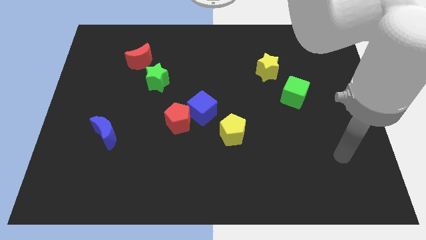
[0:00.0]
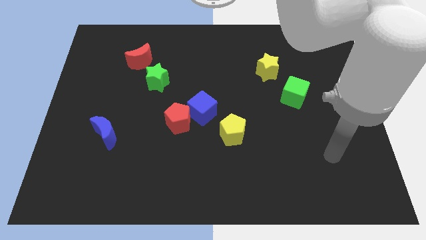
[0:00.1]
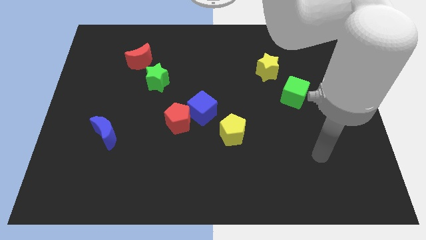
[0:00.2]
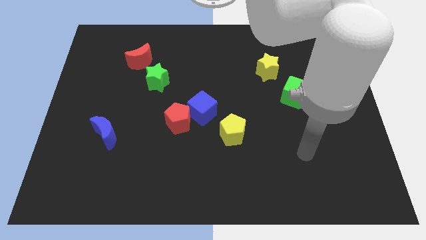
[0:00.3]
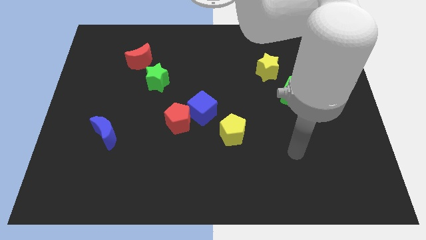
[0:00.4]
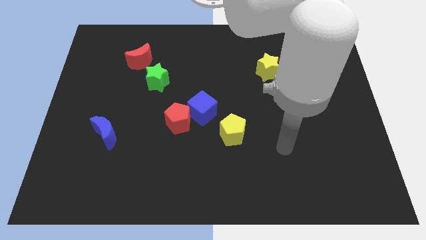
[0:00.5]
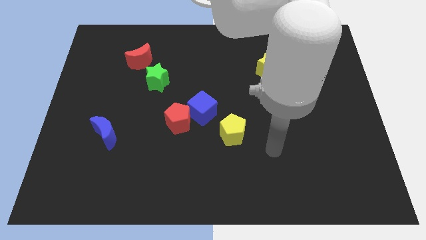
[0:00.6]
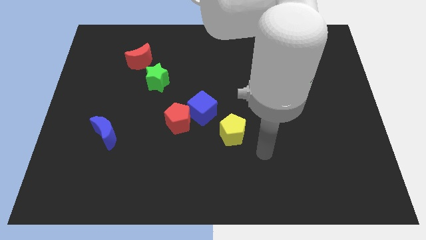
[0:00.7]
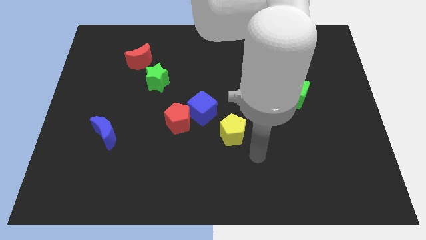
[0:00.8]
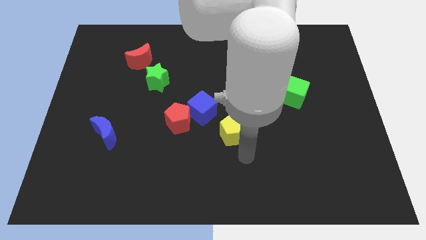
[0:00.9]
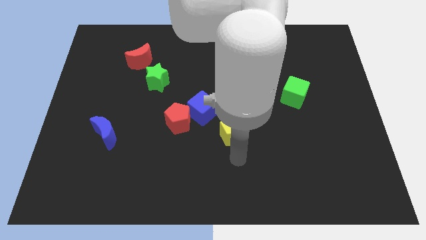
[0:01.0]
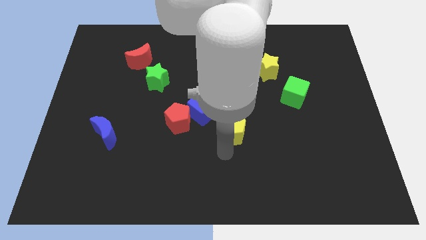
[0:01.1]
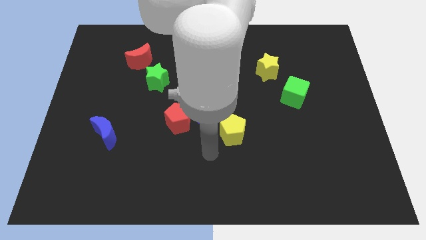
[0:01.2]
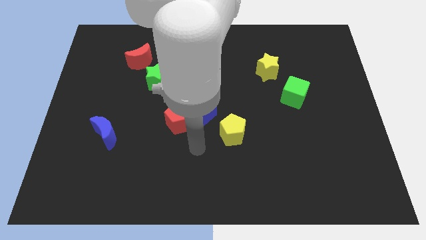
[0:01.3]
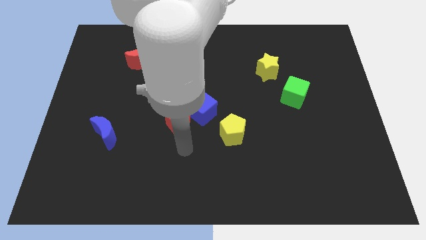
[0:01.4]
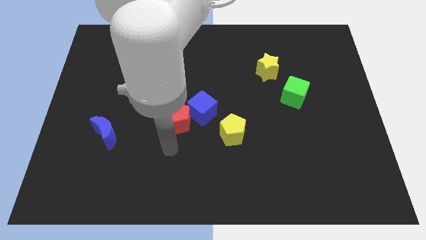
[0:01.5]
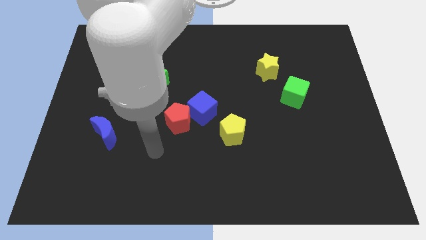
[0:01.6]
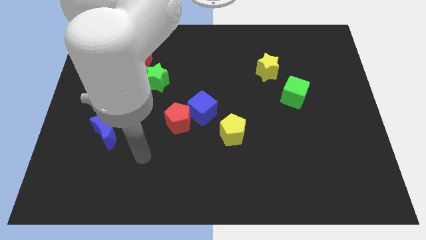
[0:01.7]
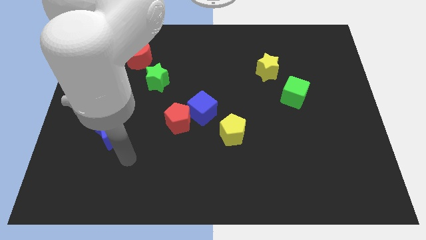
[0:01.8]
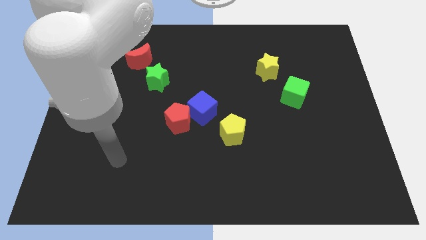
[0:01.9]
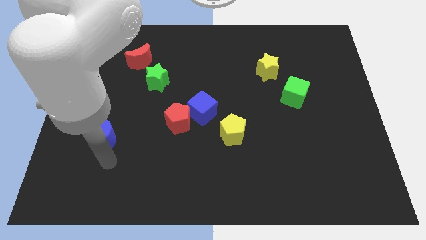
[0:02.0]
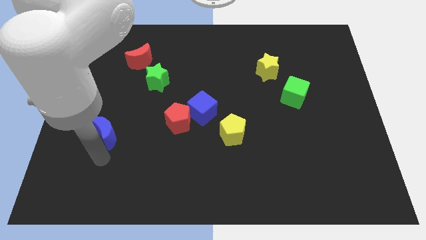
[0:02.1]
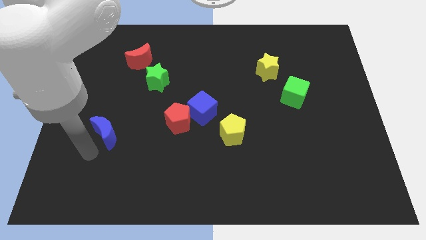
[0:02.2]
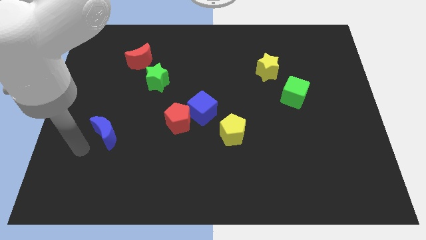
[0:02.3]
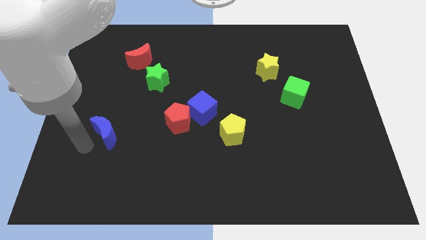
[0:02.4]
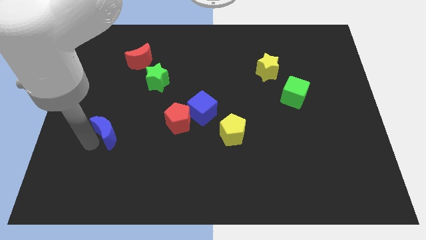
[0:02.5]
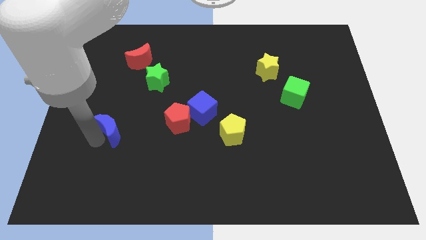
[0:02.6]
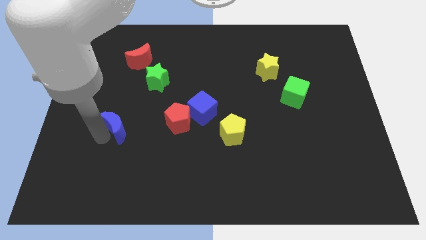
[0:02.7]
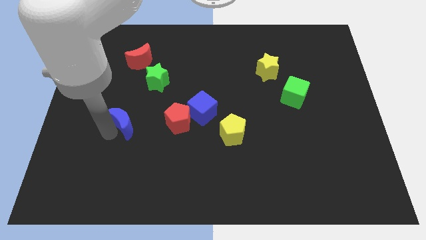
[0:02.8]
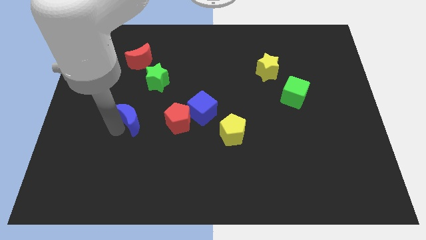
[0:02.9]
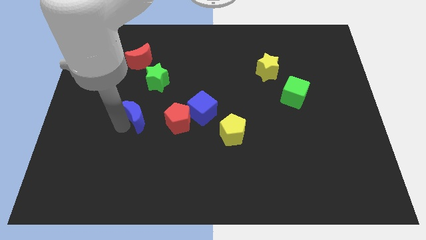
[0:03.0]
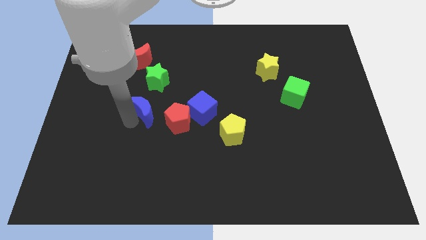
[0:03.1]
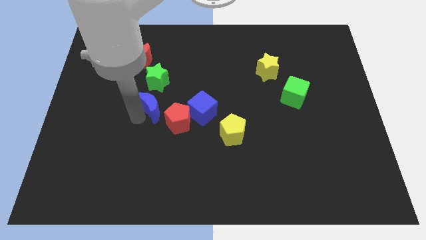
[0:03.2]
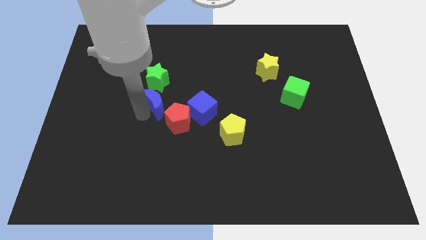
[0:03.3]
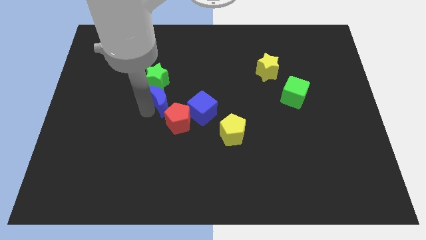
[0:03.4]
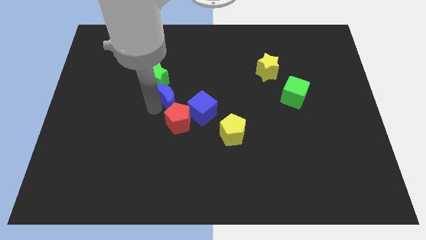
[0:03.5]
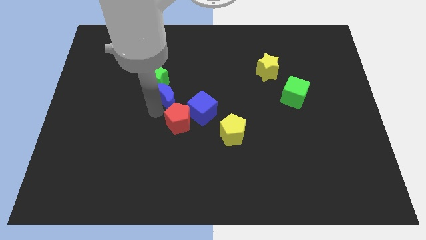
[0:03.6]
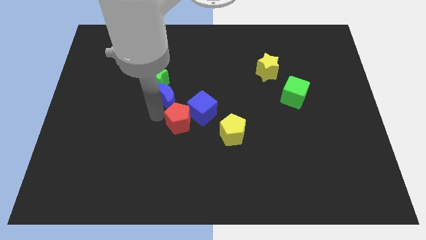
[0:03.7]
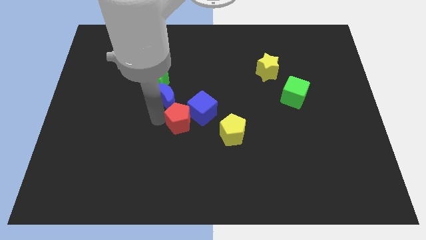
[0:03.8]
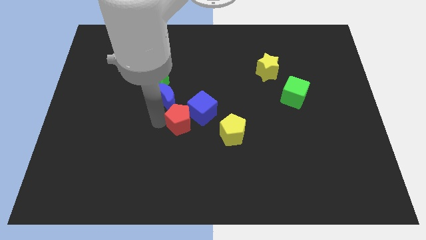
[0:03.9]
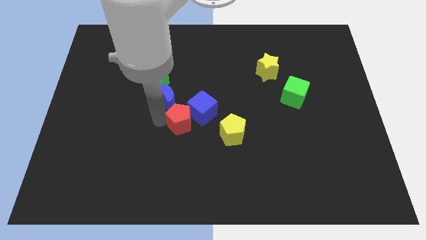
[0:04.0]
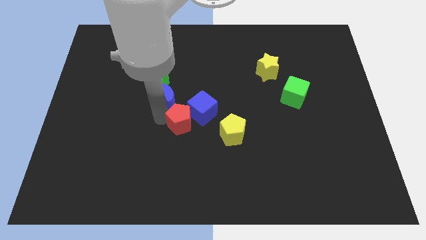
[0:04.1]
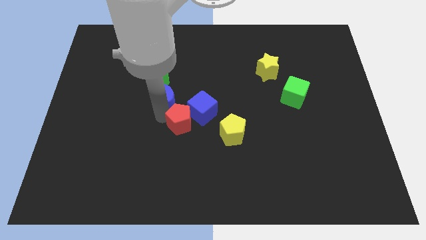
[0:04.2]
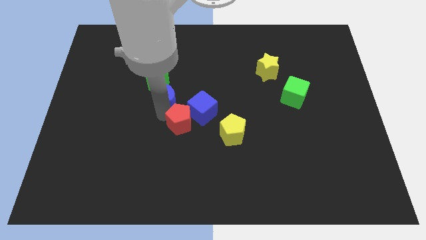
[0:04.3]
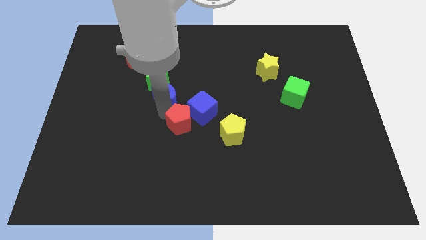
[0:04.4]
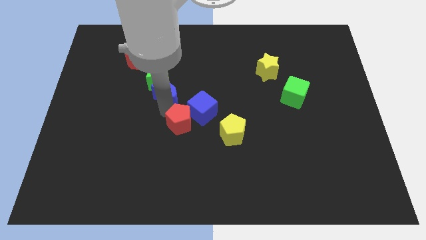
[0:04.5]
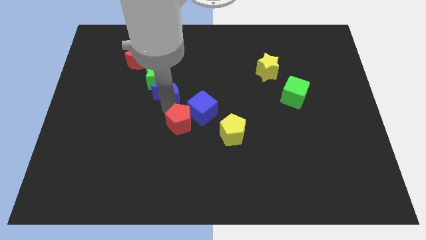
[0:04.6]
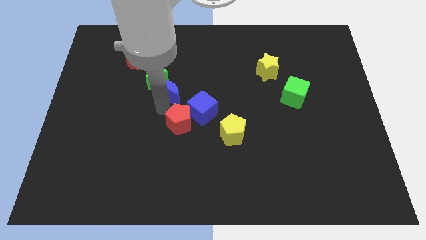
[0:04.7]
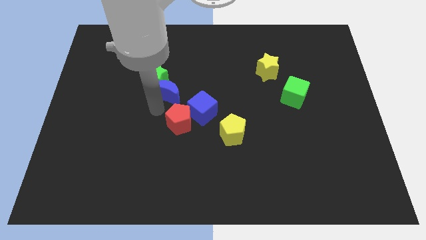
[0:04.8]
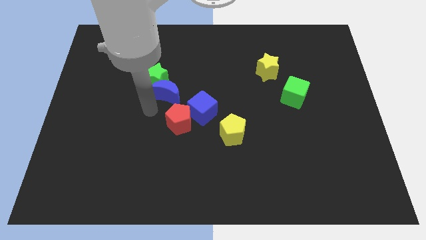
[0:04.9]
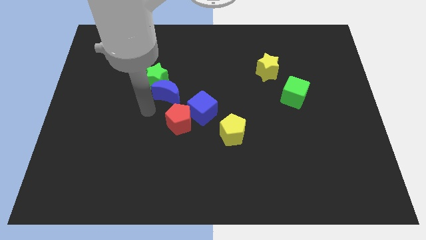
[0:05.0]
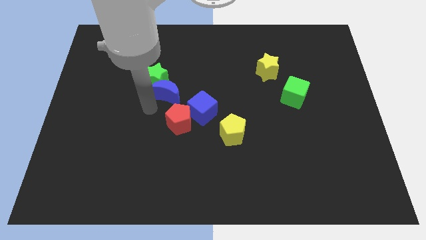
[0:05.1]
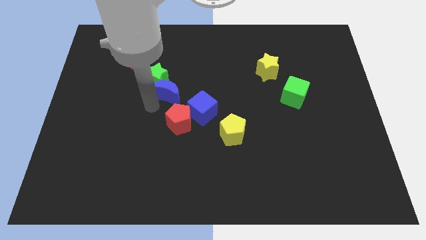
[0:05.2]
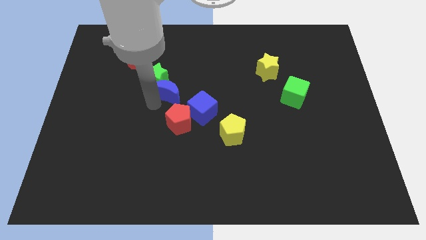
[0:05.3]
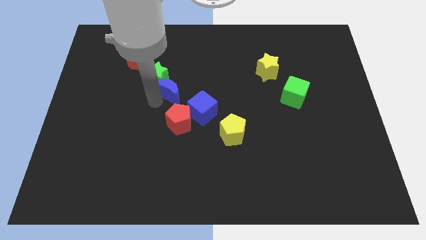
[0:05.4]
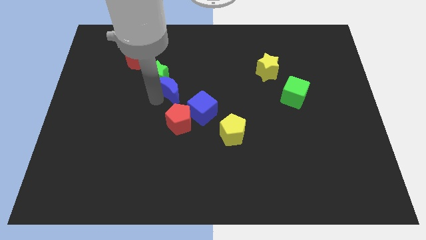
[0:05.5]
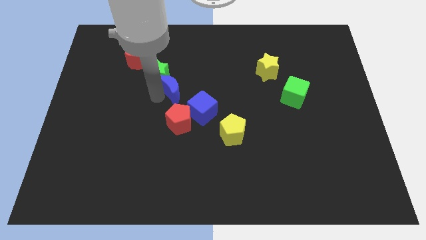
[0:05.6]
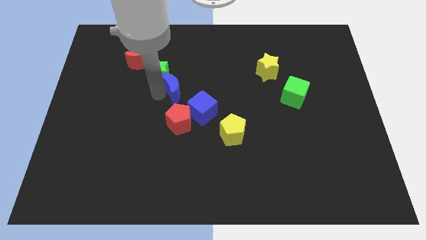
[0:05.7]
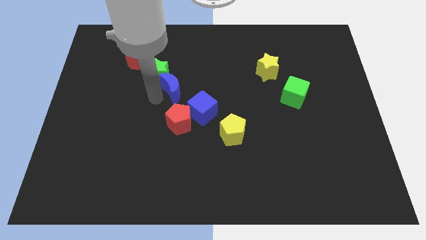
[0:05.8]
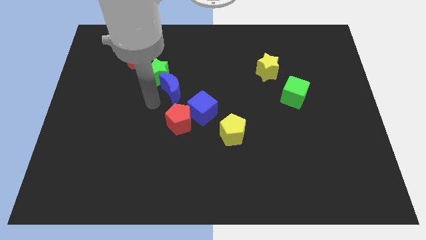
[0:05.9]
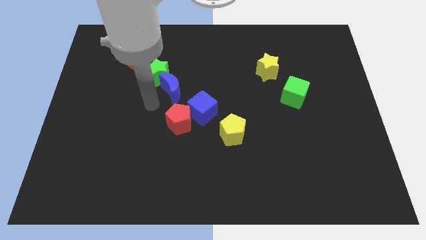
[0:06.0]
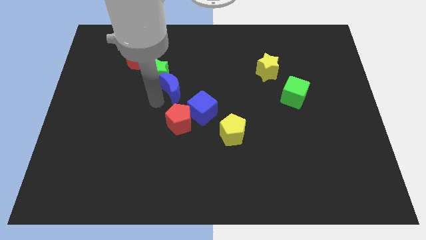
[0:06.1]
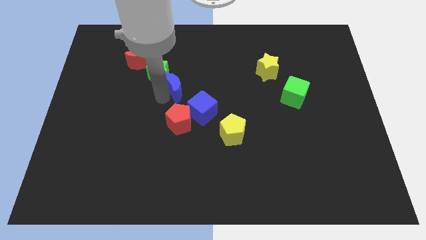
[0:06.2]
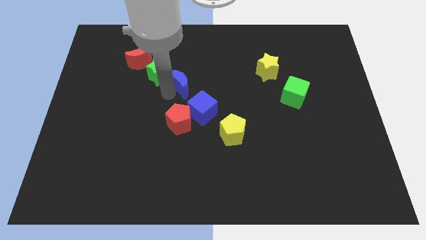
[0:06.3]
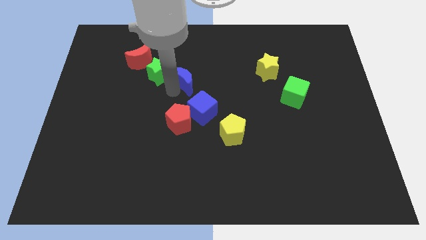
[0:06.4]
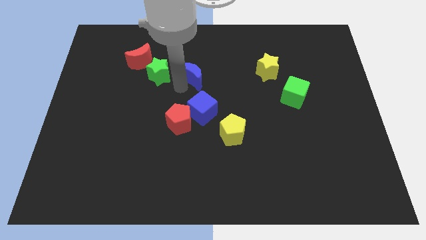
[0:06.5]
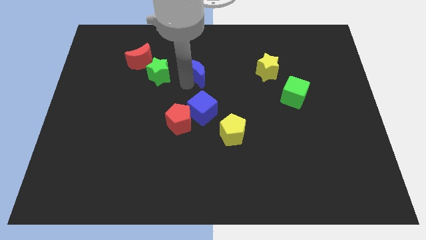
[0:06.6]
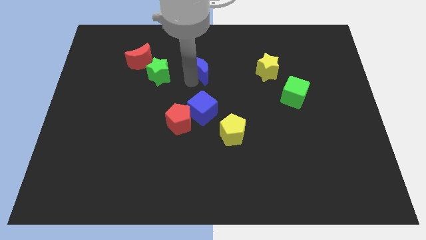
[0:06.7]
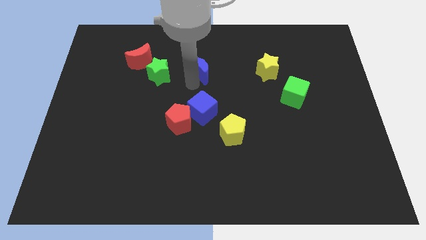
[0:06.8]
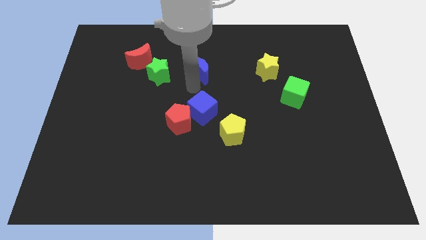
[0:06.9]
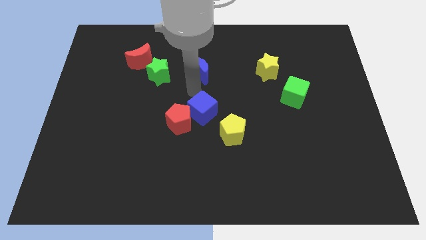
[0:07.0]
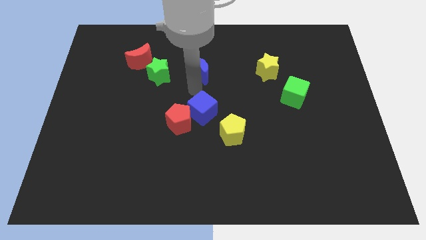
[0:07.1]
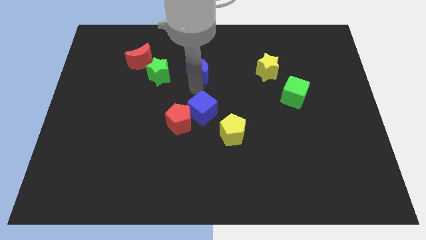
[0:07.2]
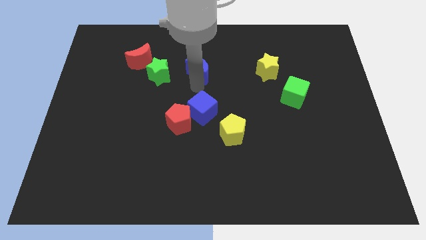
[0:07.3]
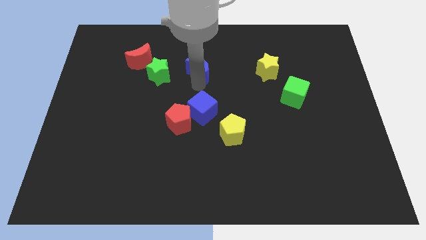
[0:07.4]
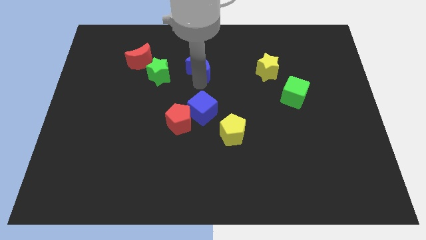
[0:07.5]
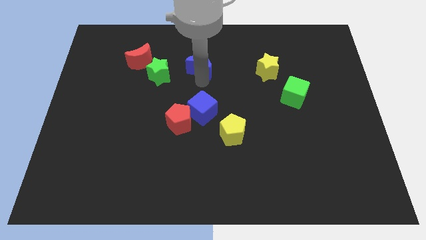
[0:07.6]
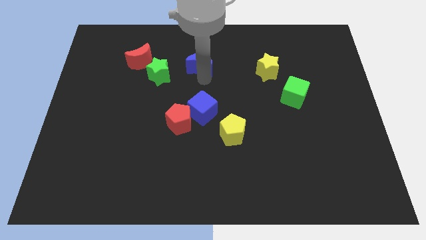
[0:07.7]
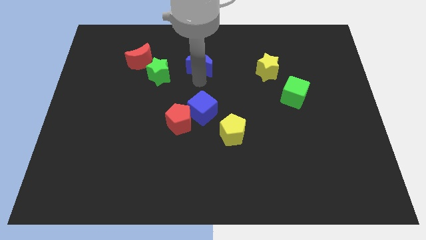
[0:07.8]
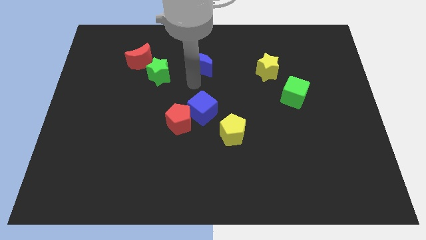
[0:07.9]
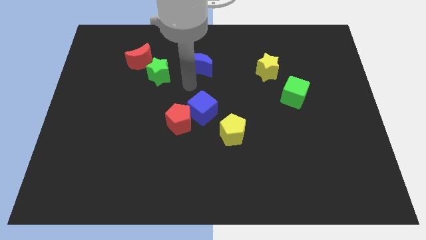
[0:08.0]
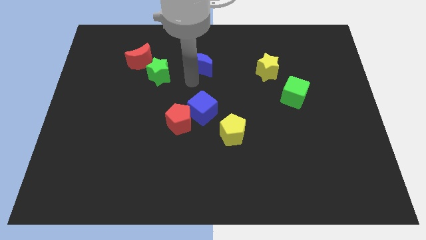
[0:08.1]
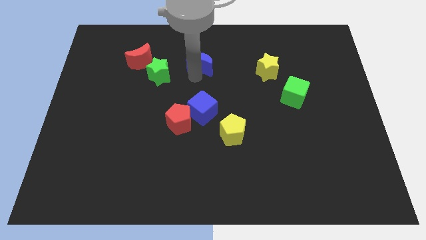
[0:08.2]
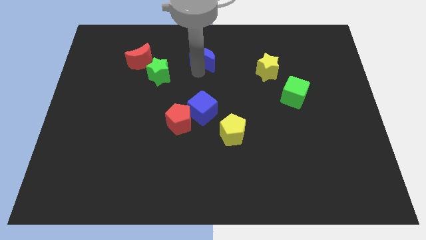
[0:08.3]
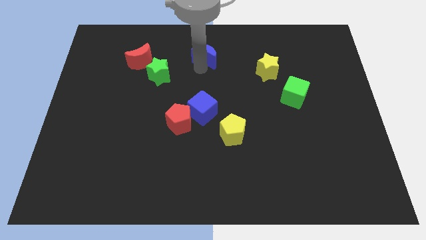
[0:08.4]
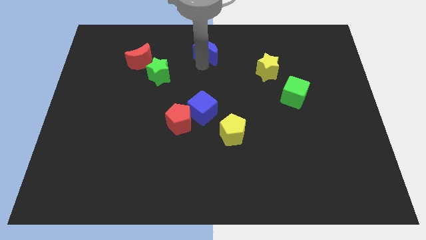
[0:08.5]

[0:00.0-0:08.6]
slide the blue moon to the top
